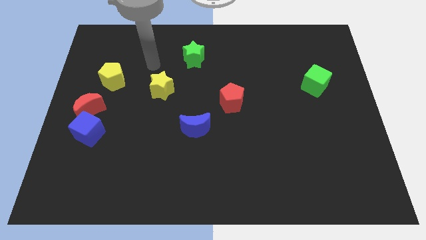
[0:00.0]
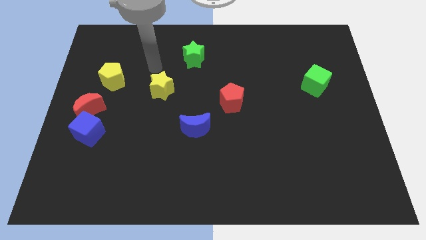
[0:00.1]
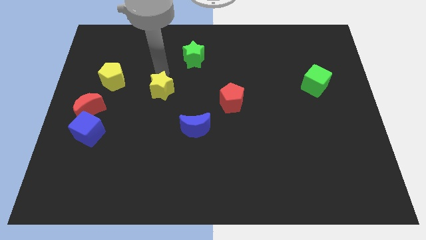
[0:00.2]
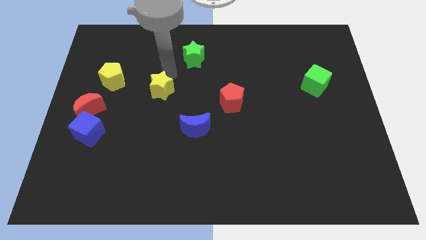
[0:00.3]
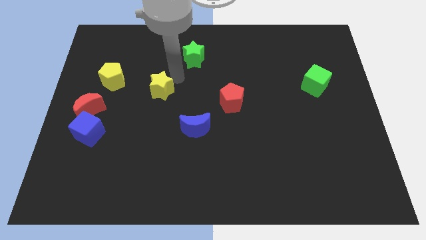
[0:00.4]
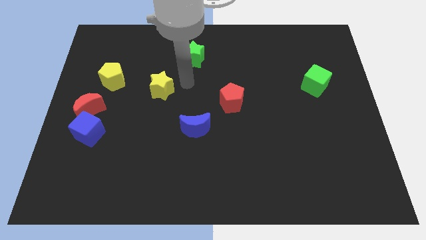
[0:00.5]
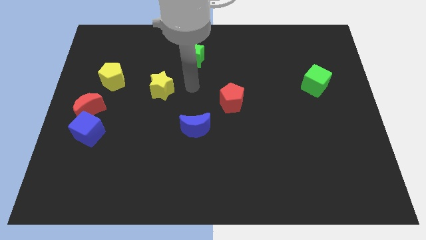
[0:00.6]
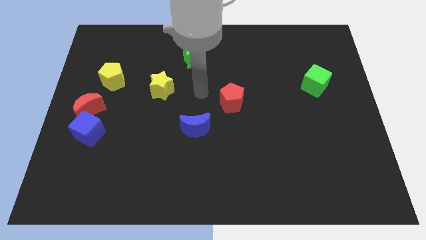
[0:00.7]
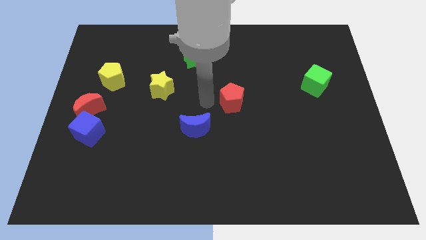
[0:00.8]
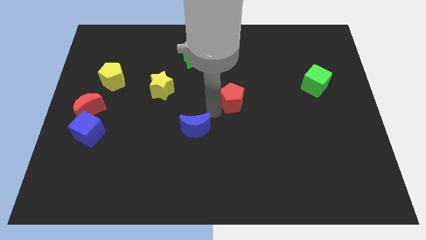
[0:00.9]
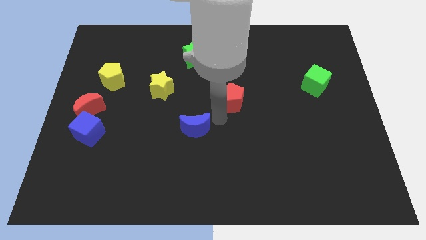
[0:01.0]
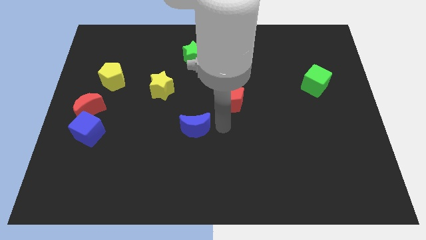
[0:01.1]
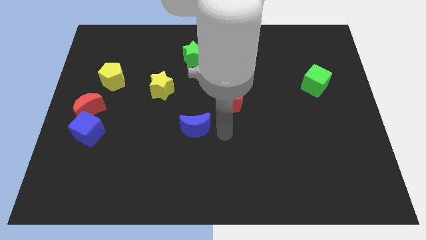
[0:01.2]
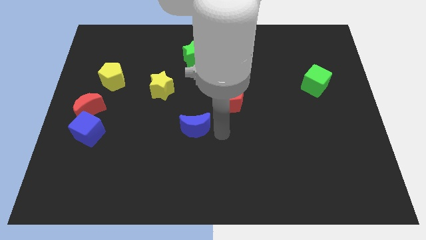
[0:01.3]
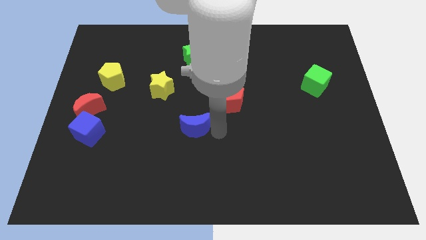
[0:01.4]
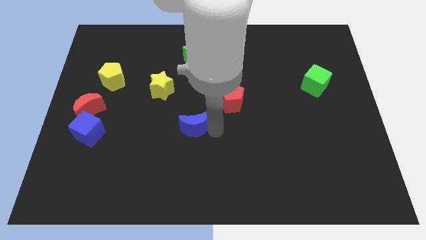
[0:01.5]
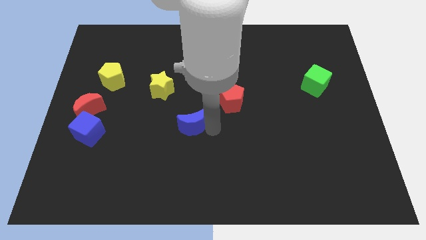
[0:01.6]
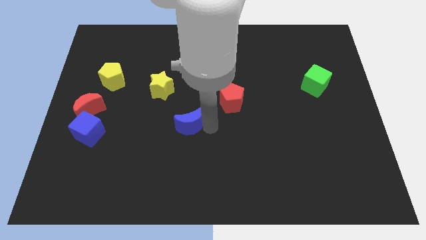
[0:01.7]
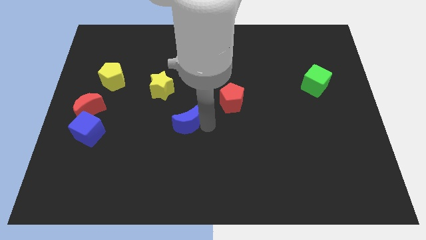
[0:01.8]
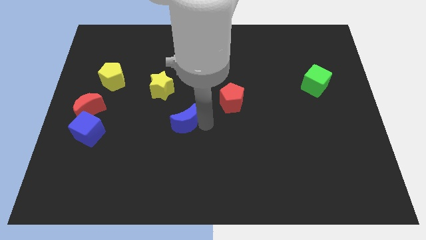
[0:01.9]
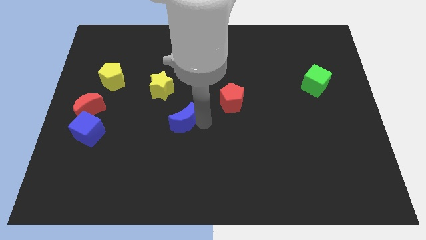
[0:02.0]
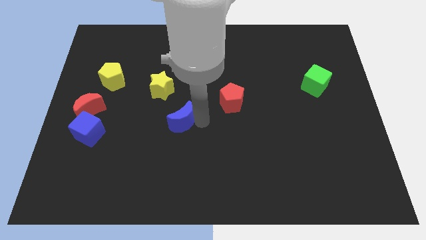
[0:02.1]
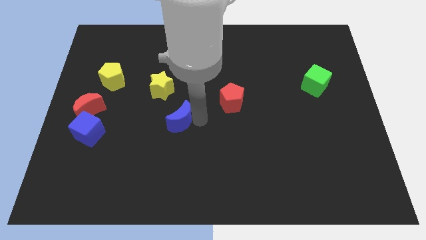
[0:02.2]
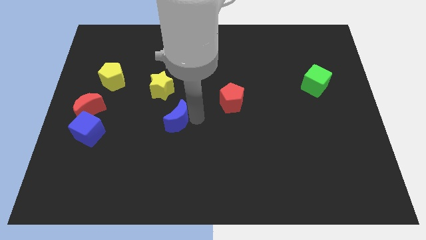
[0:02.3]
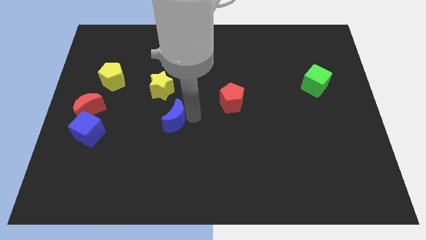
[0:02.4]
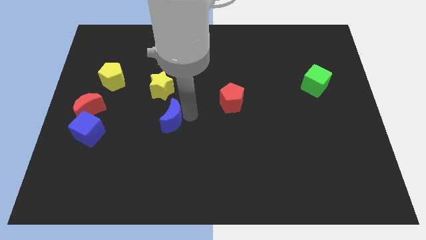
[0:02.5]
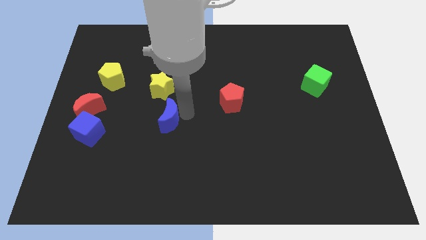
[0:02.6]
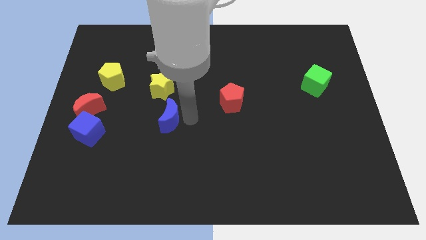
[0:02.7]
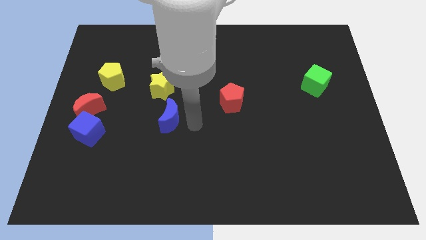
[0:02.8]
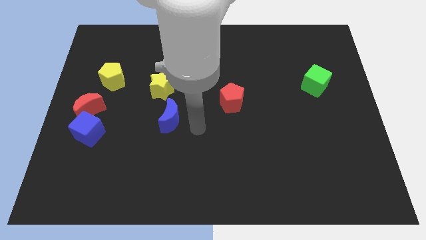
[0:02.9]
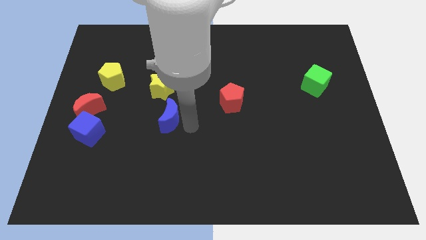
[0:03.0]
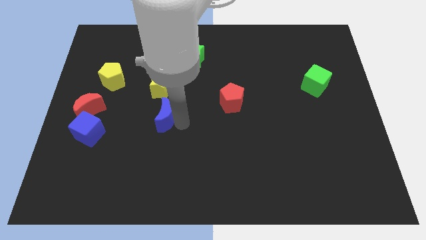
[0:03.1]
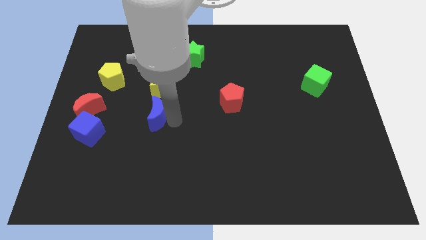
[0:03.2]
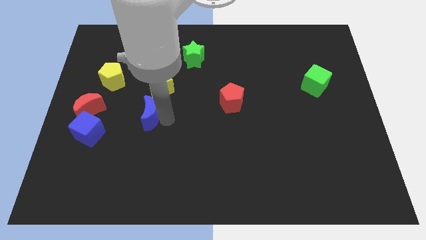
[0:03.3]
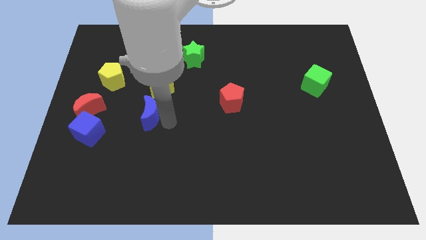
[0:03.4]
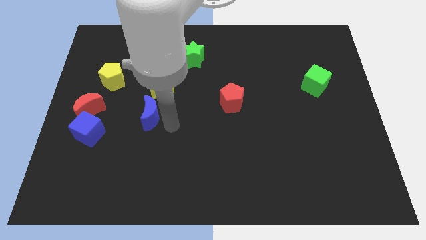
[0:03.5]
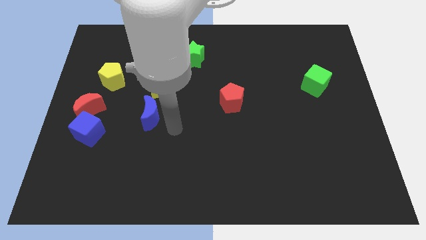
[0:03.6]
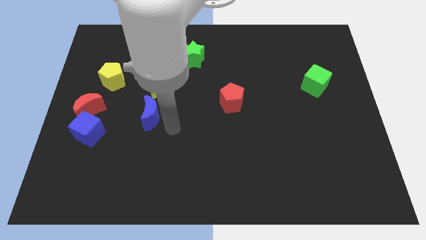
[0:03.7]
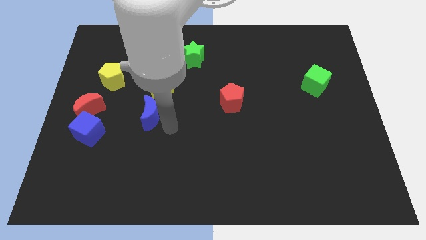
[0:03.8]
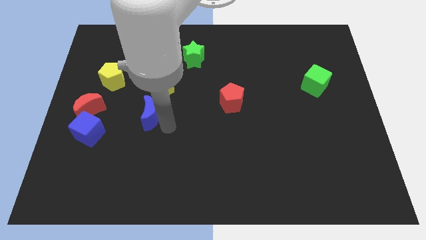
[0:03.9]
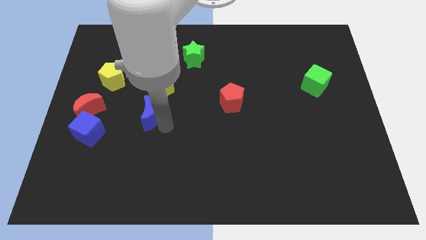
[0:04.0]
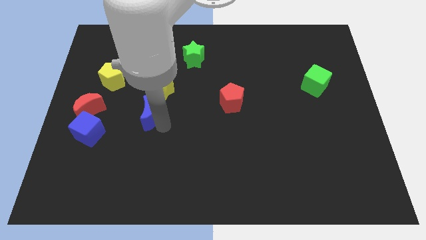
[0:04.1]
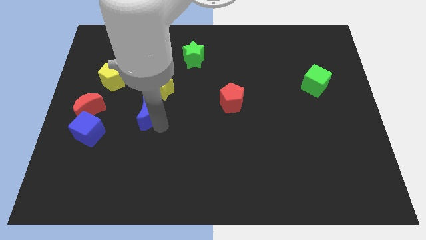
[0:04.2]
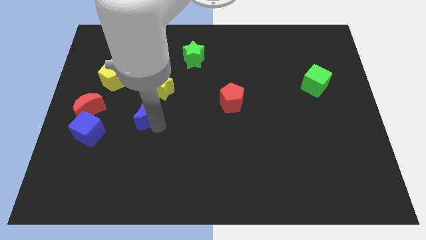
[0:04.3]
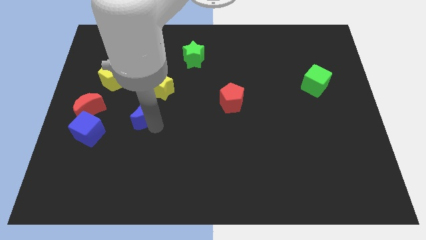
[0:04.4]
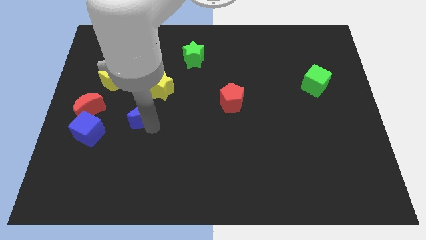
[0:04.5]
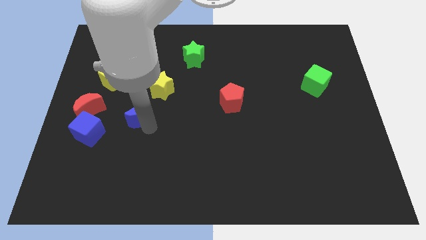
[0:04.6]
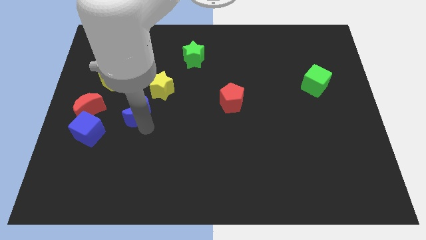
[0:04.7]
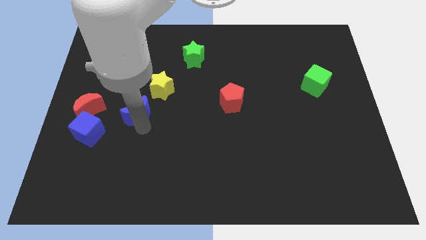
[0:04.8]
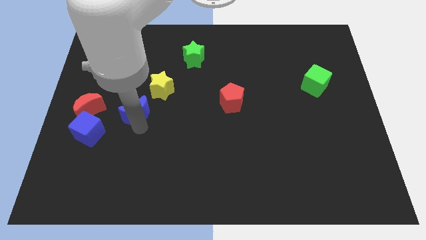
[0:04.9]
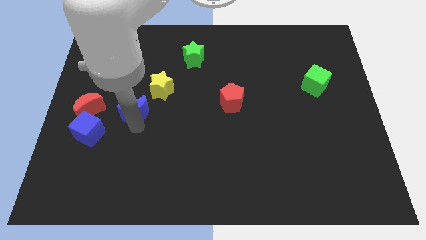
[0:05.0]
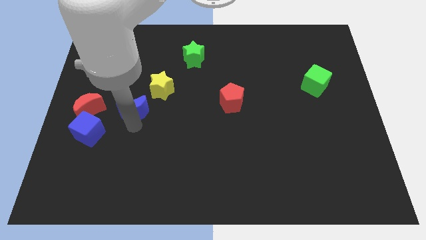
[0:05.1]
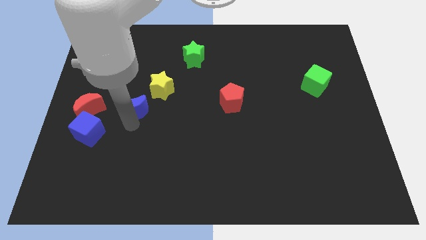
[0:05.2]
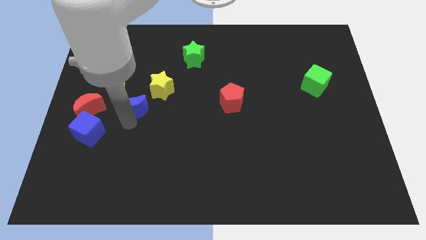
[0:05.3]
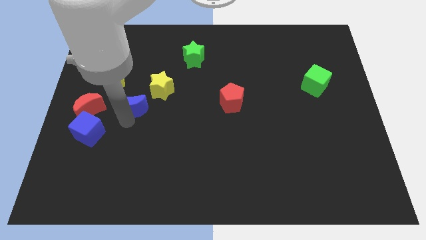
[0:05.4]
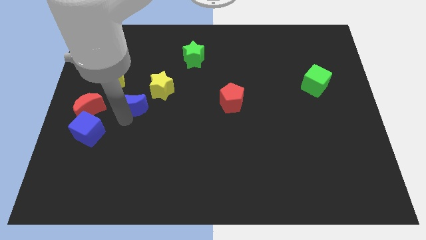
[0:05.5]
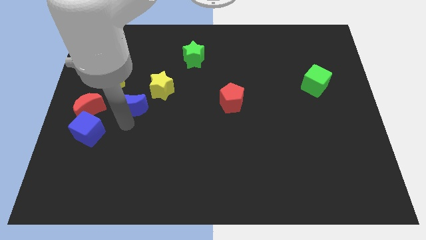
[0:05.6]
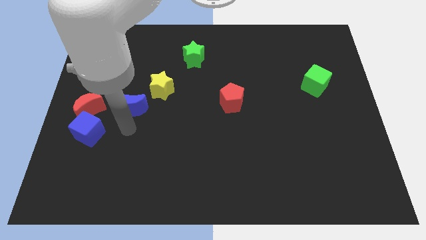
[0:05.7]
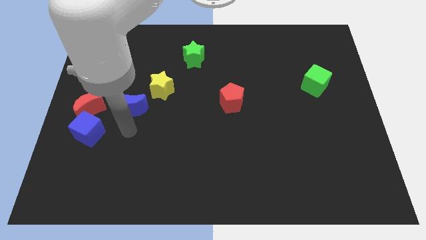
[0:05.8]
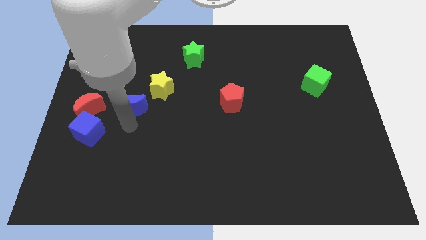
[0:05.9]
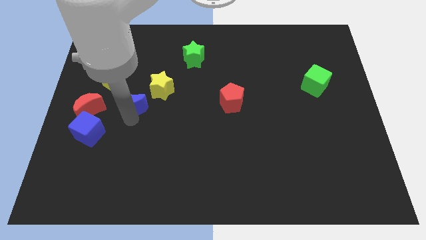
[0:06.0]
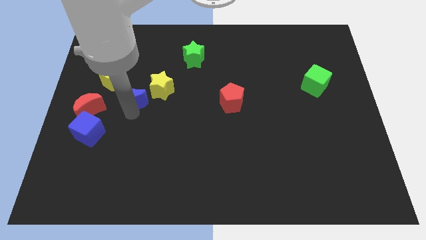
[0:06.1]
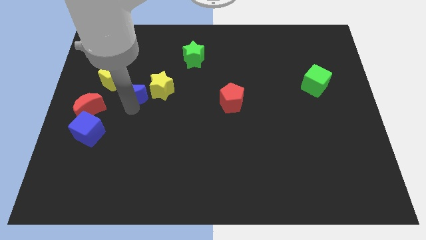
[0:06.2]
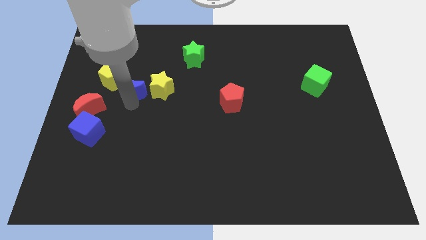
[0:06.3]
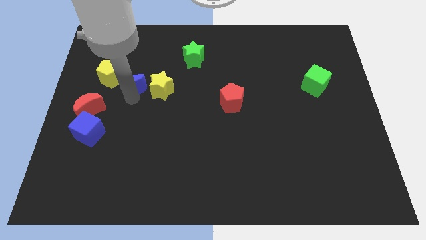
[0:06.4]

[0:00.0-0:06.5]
push the blue moon diagonally up and left

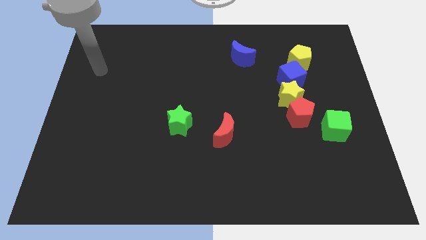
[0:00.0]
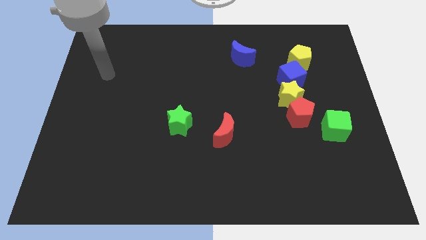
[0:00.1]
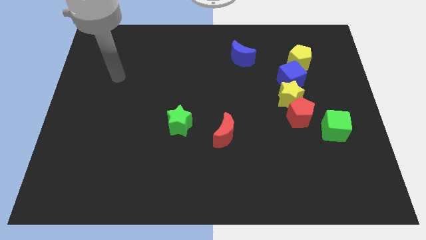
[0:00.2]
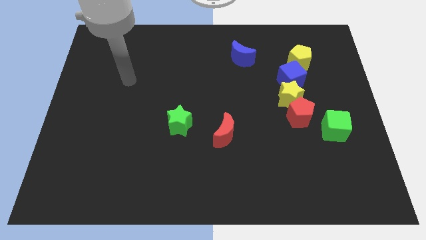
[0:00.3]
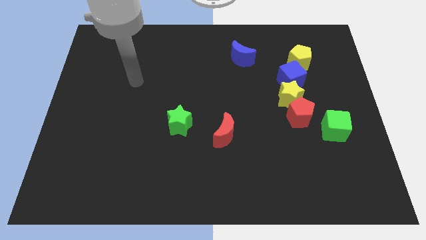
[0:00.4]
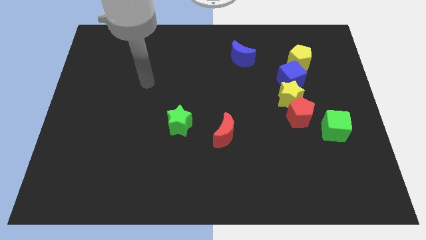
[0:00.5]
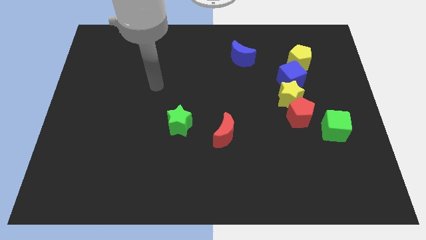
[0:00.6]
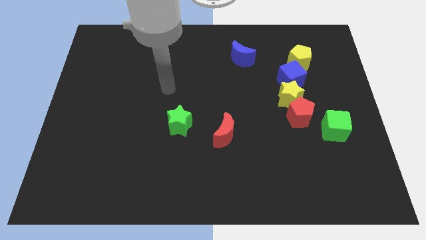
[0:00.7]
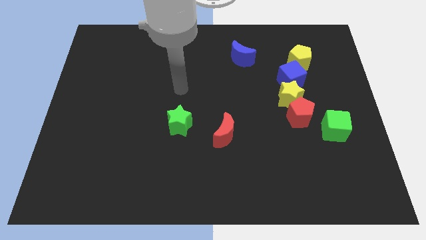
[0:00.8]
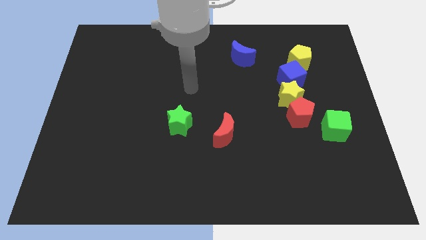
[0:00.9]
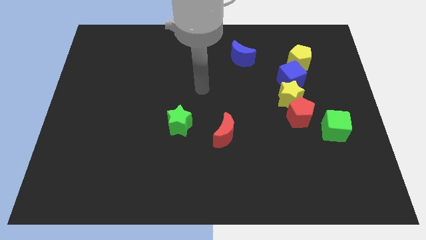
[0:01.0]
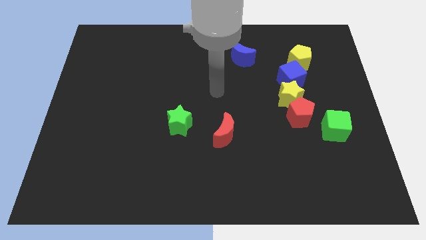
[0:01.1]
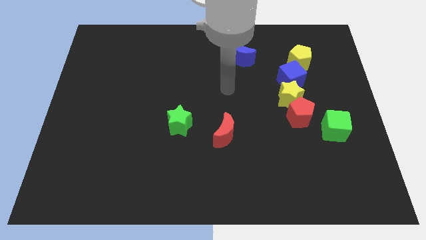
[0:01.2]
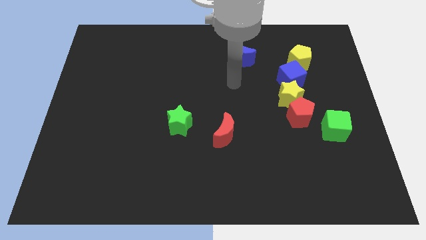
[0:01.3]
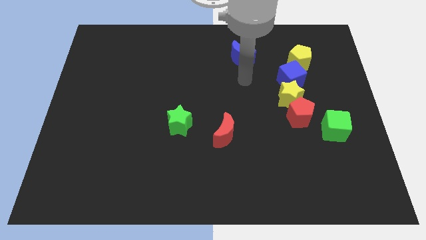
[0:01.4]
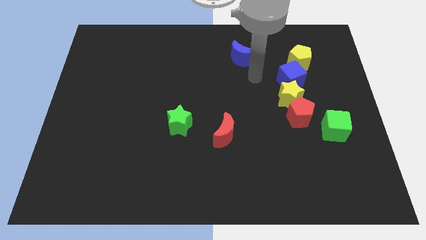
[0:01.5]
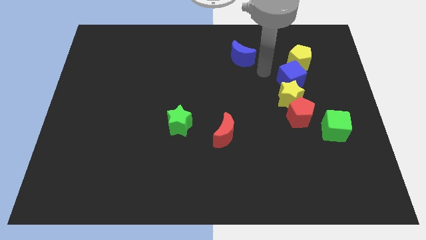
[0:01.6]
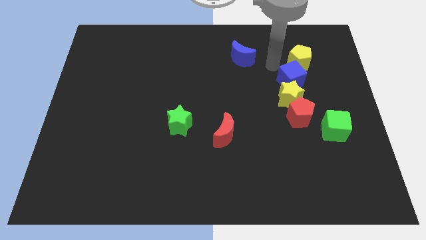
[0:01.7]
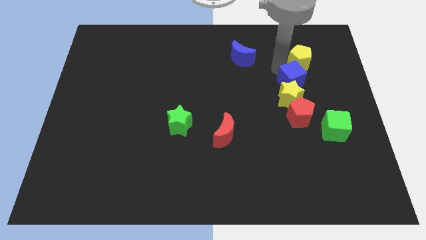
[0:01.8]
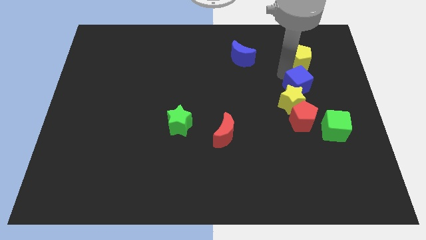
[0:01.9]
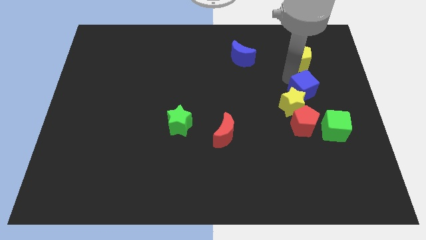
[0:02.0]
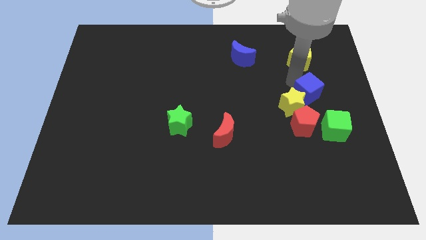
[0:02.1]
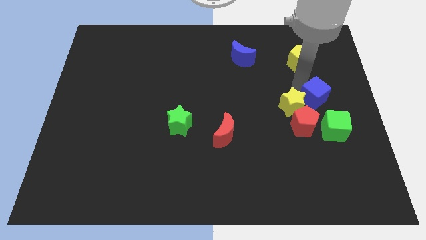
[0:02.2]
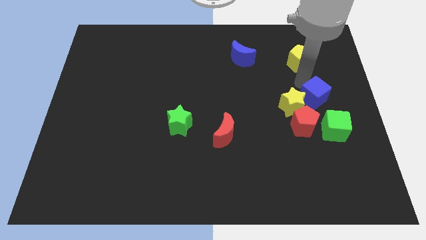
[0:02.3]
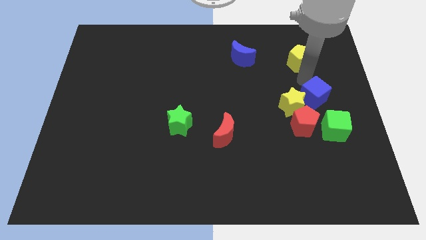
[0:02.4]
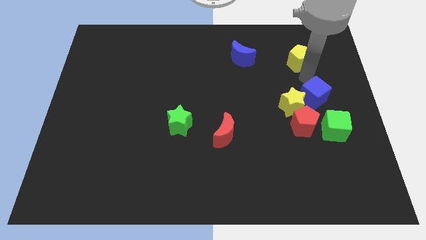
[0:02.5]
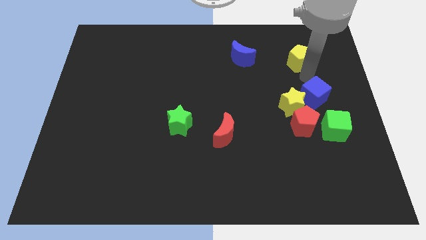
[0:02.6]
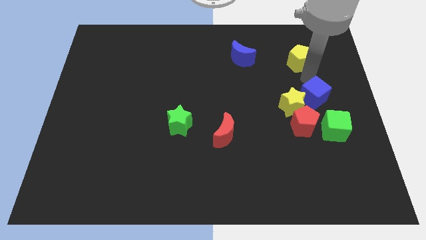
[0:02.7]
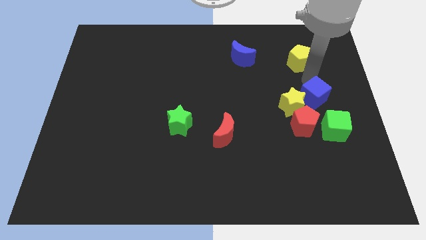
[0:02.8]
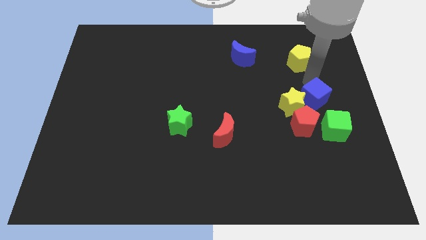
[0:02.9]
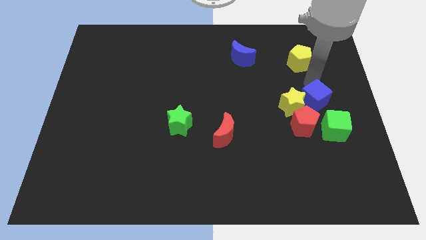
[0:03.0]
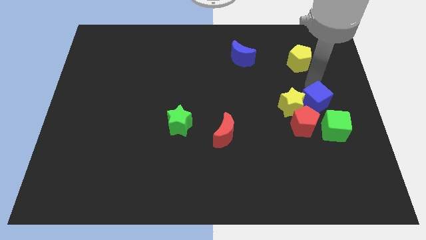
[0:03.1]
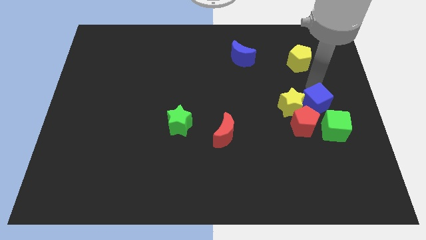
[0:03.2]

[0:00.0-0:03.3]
slide the blue cube downwards slightly
